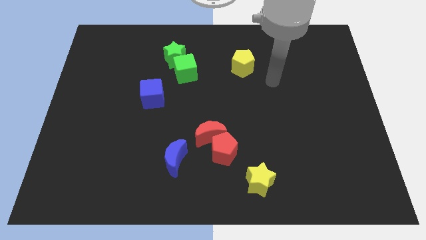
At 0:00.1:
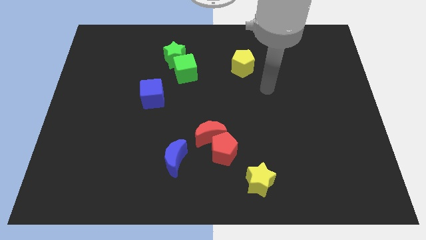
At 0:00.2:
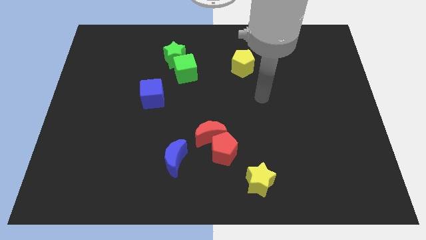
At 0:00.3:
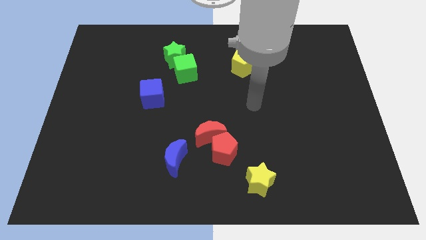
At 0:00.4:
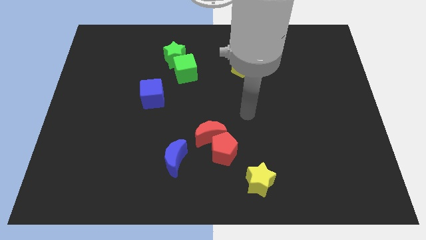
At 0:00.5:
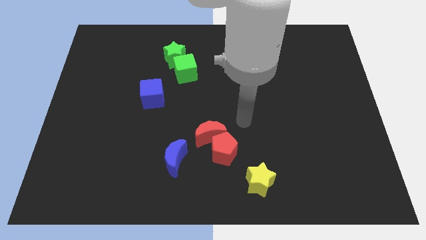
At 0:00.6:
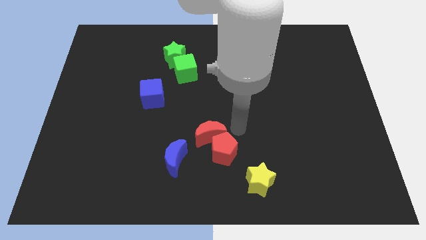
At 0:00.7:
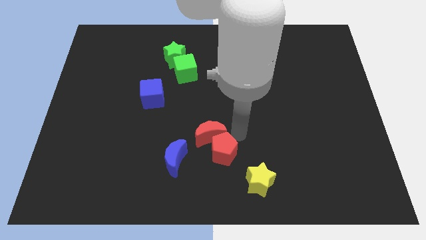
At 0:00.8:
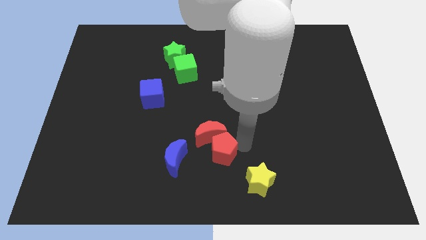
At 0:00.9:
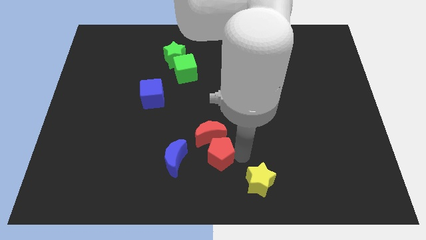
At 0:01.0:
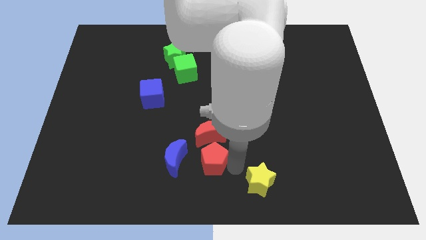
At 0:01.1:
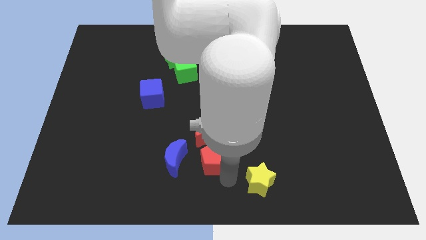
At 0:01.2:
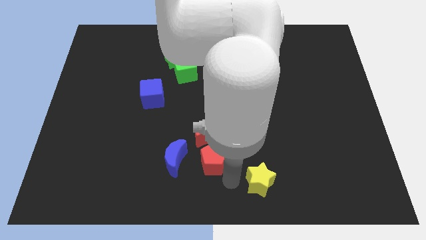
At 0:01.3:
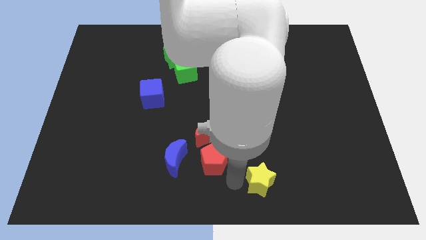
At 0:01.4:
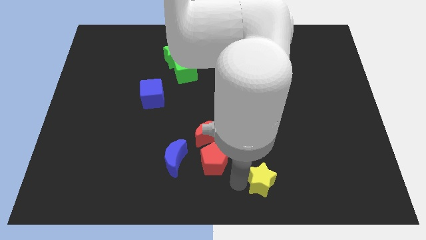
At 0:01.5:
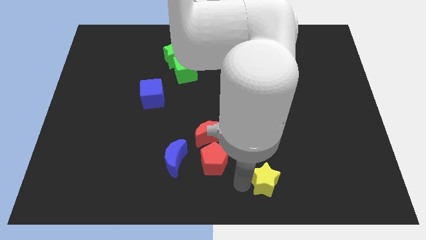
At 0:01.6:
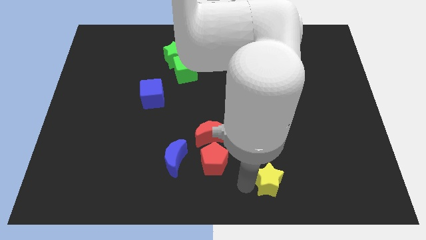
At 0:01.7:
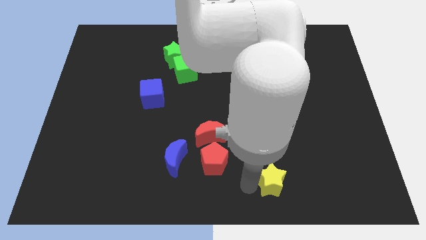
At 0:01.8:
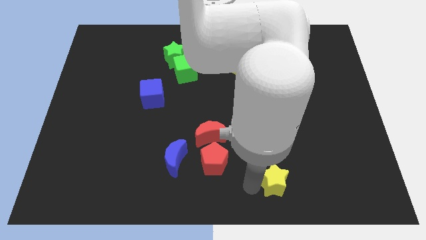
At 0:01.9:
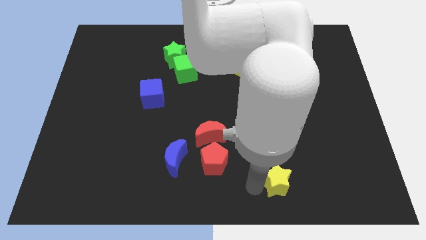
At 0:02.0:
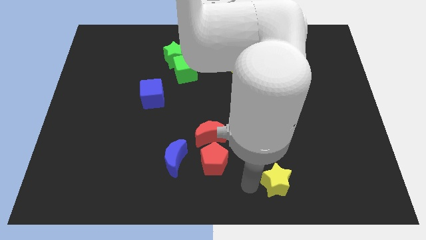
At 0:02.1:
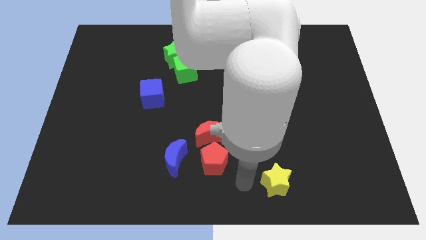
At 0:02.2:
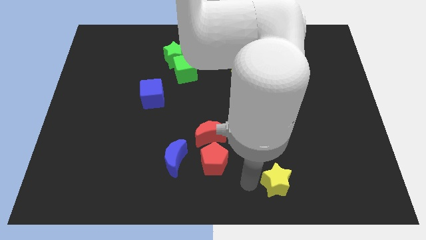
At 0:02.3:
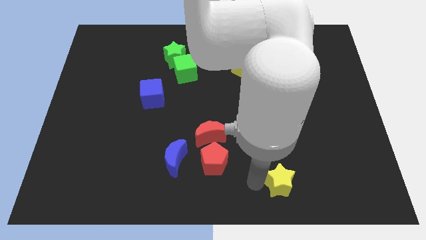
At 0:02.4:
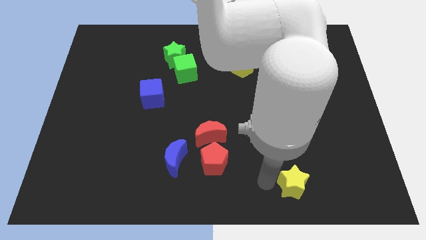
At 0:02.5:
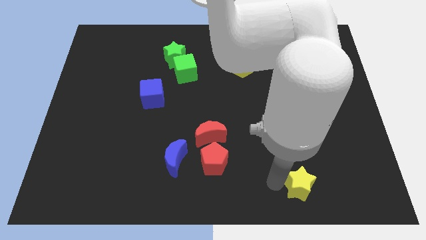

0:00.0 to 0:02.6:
slightly slide the yellow star right

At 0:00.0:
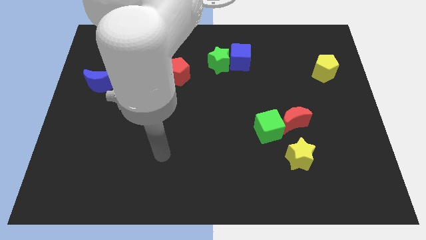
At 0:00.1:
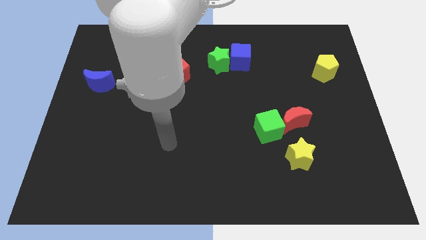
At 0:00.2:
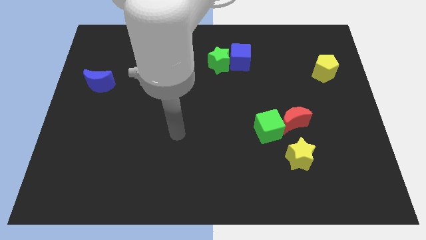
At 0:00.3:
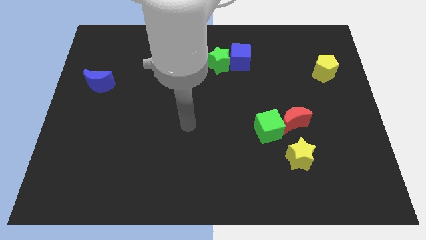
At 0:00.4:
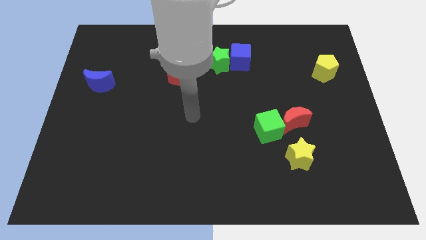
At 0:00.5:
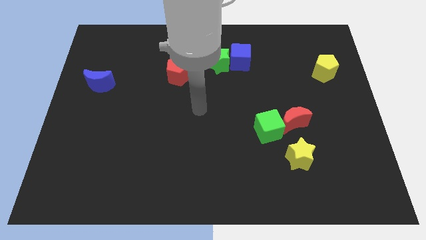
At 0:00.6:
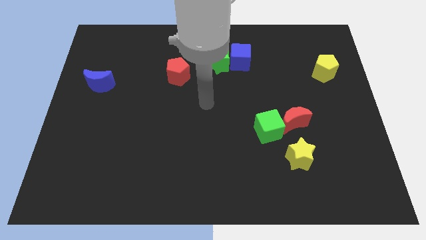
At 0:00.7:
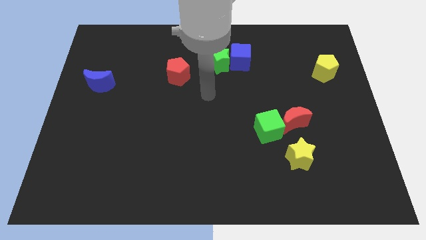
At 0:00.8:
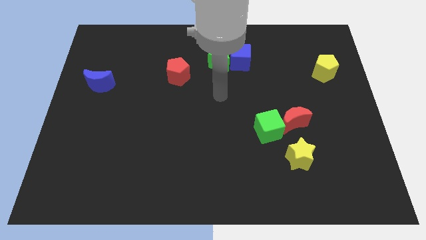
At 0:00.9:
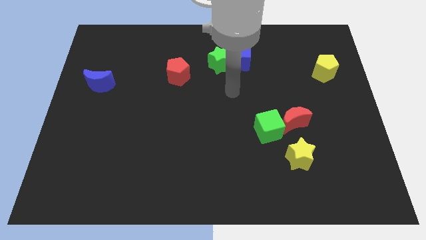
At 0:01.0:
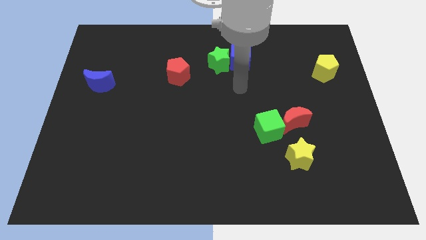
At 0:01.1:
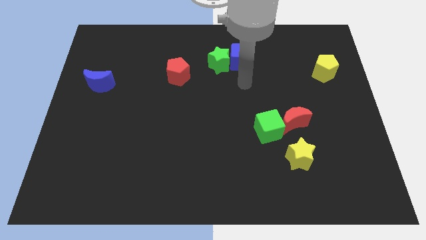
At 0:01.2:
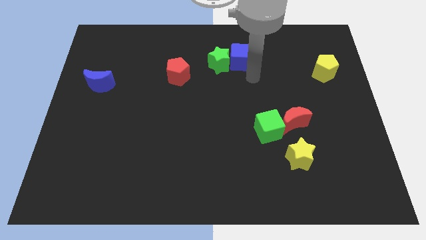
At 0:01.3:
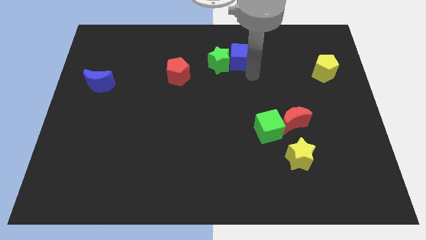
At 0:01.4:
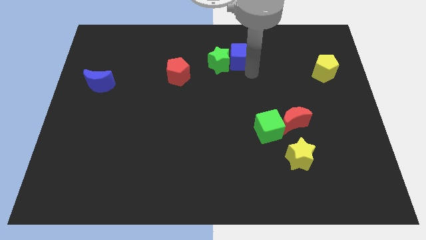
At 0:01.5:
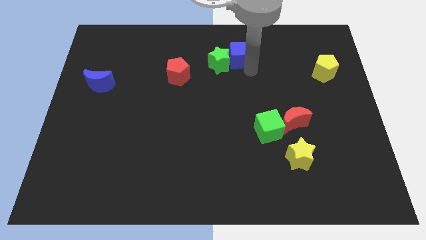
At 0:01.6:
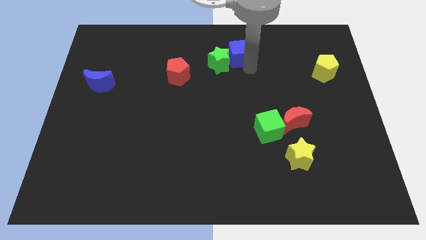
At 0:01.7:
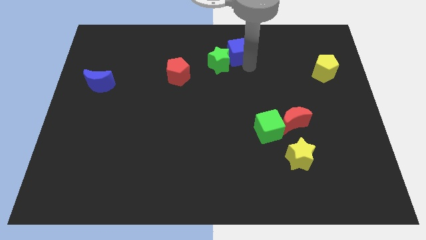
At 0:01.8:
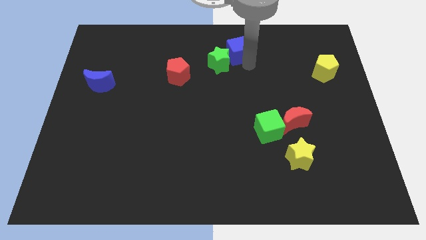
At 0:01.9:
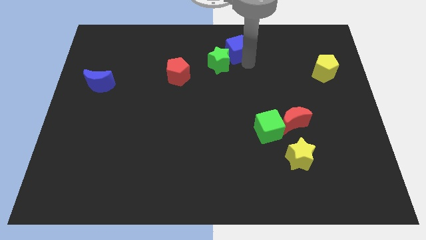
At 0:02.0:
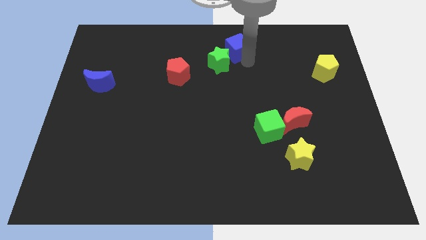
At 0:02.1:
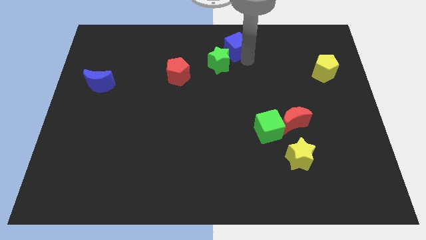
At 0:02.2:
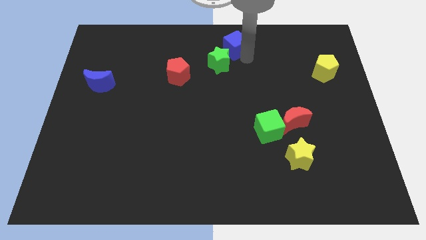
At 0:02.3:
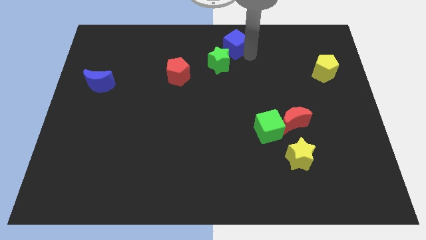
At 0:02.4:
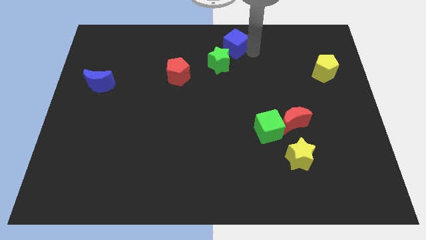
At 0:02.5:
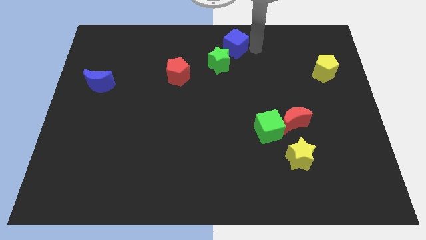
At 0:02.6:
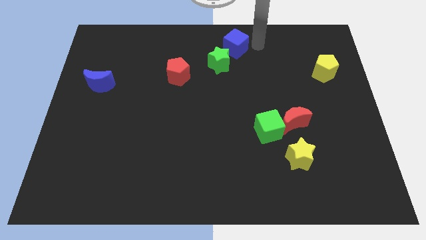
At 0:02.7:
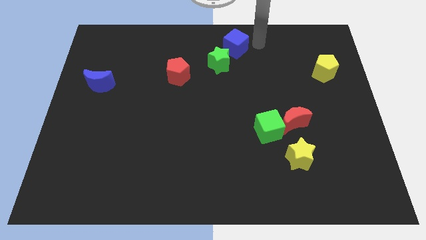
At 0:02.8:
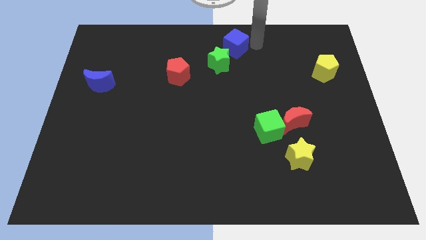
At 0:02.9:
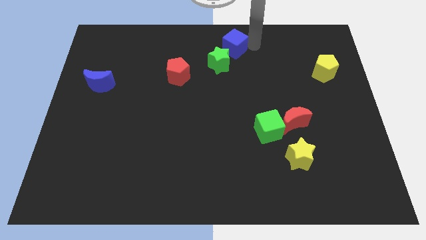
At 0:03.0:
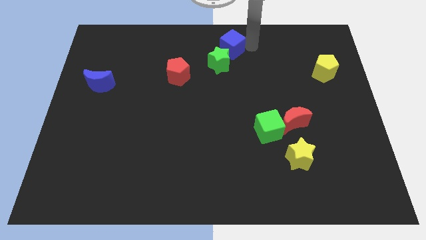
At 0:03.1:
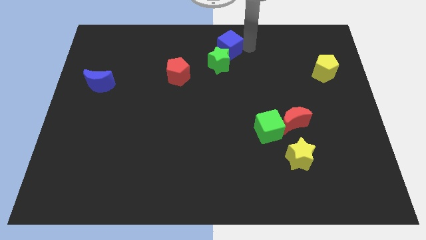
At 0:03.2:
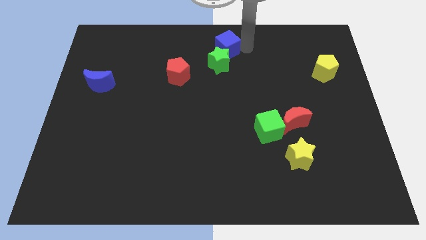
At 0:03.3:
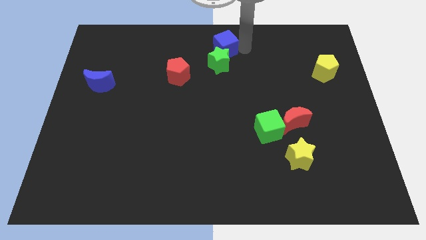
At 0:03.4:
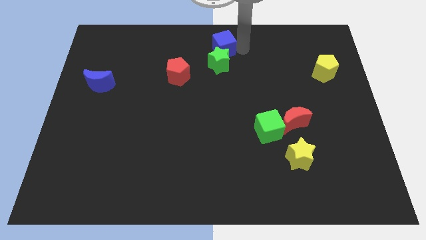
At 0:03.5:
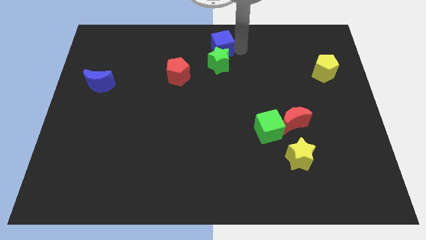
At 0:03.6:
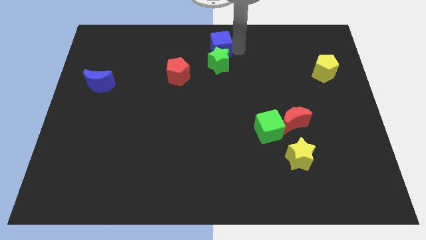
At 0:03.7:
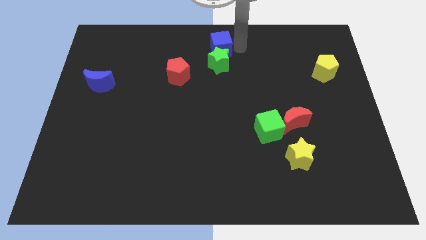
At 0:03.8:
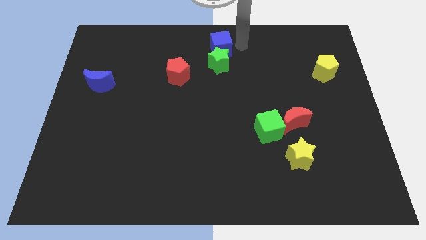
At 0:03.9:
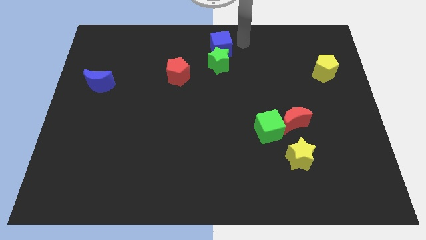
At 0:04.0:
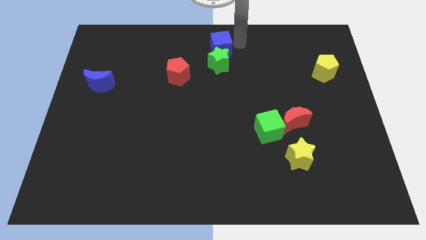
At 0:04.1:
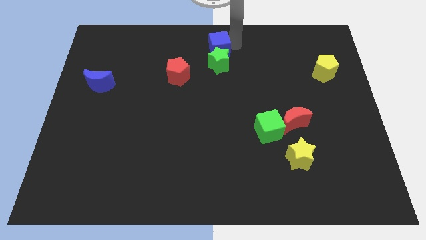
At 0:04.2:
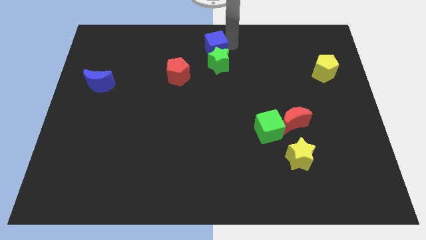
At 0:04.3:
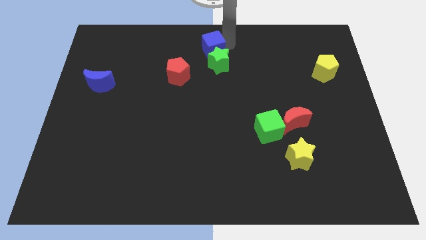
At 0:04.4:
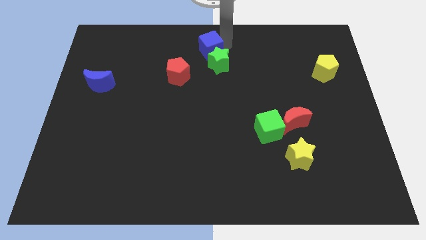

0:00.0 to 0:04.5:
slide the blue cube a little to the left

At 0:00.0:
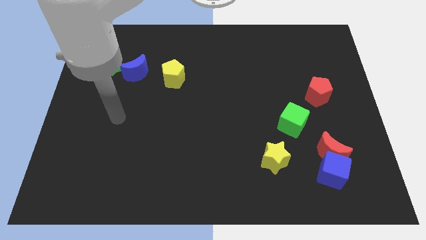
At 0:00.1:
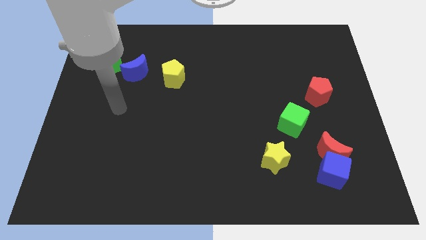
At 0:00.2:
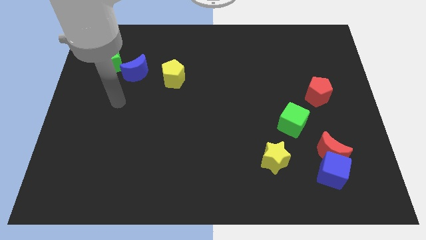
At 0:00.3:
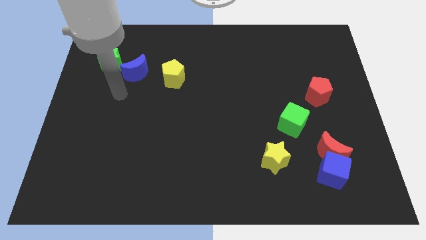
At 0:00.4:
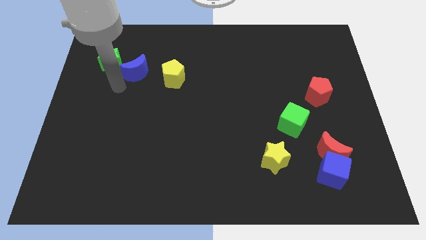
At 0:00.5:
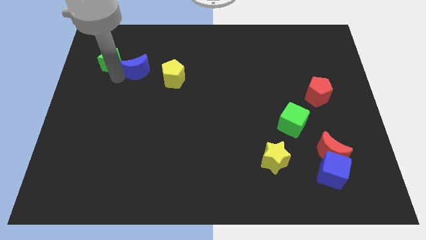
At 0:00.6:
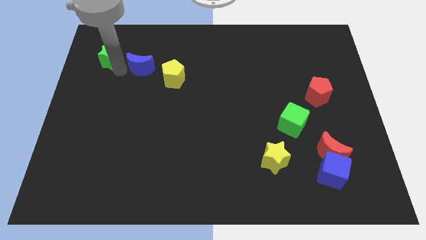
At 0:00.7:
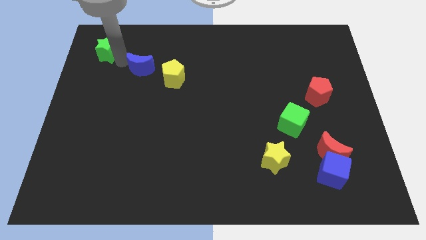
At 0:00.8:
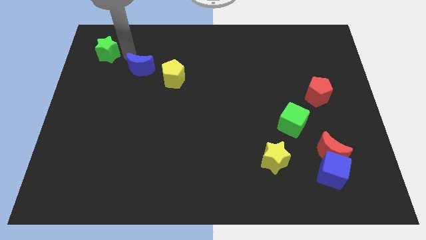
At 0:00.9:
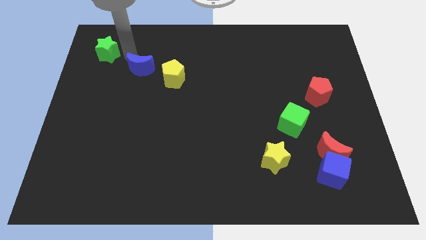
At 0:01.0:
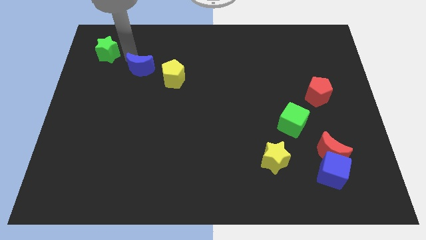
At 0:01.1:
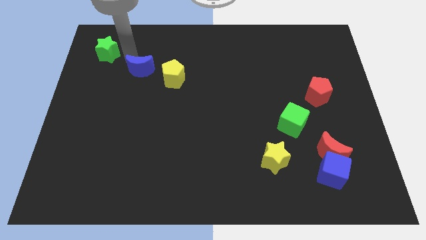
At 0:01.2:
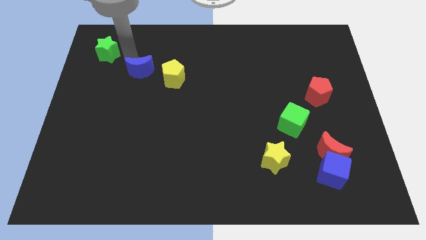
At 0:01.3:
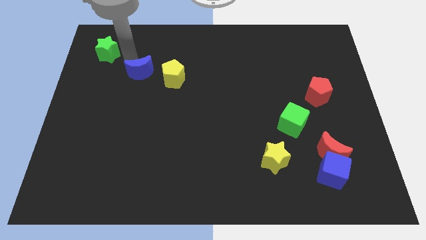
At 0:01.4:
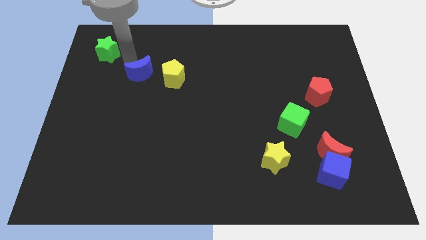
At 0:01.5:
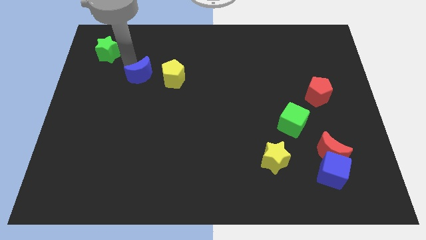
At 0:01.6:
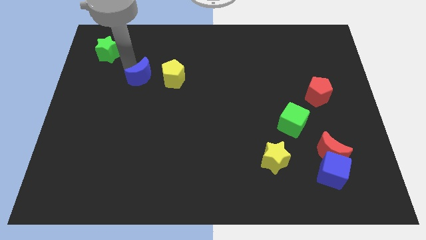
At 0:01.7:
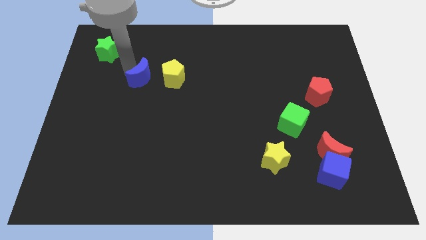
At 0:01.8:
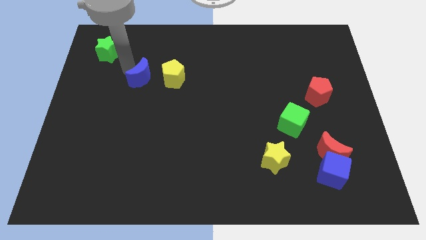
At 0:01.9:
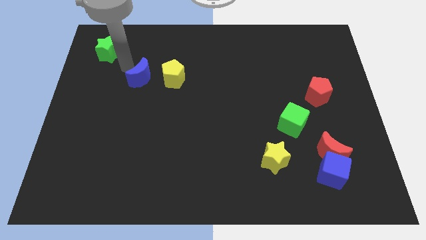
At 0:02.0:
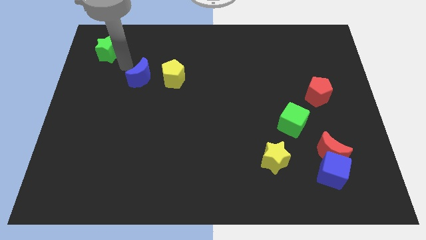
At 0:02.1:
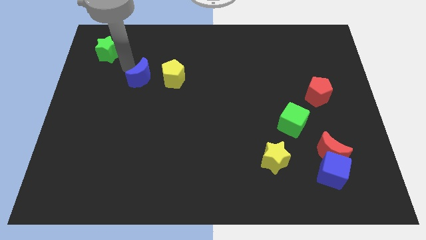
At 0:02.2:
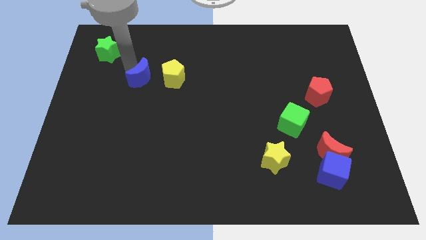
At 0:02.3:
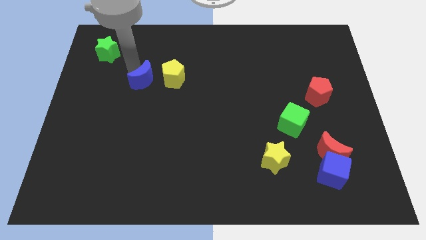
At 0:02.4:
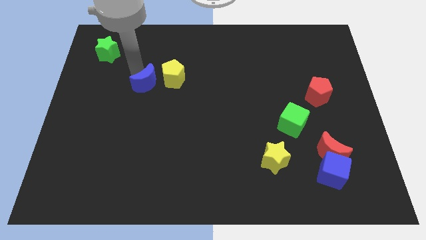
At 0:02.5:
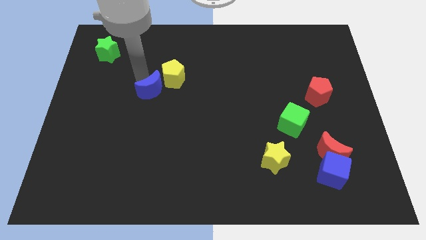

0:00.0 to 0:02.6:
slightly push the blue moon down and then right
